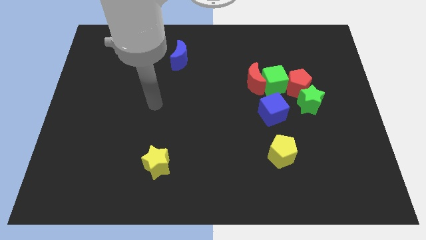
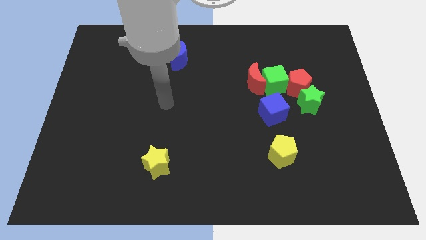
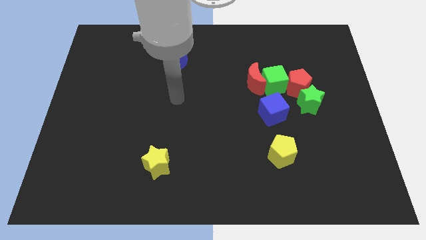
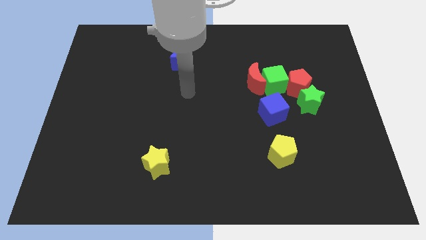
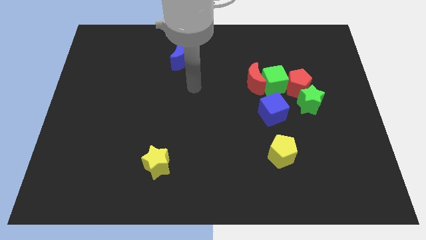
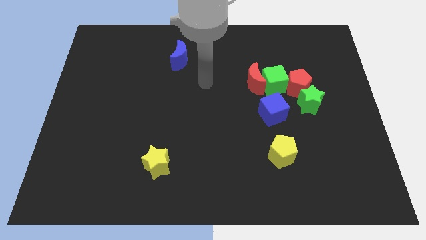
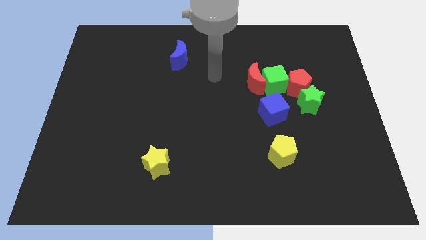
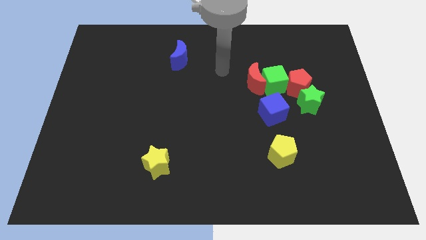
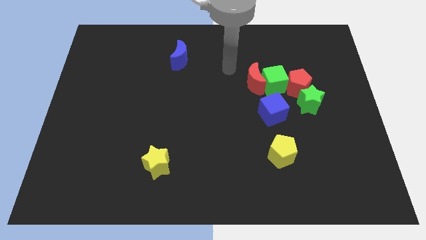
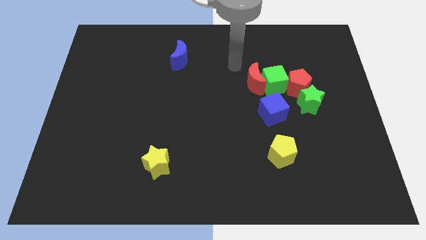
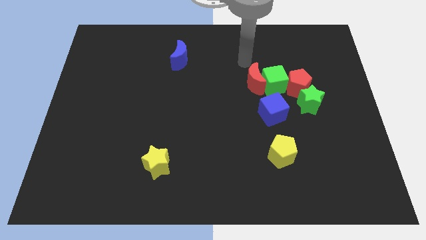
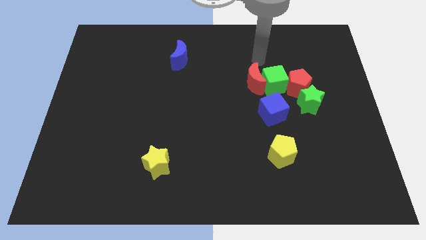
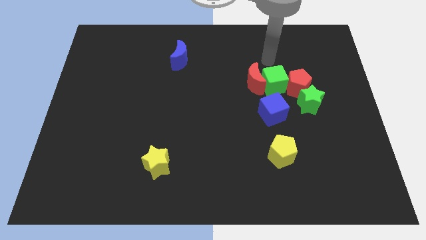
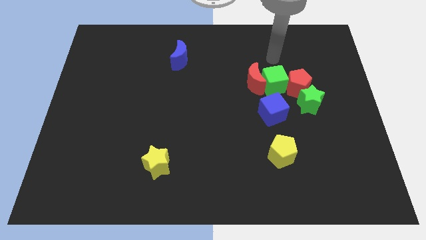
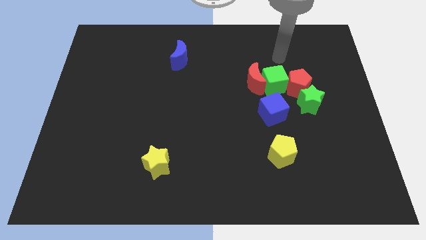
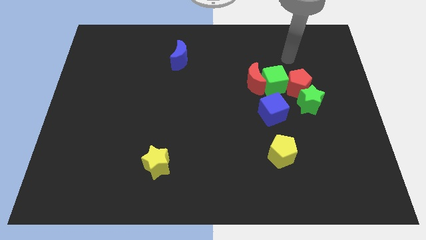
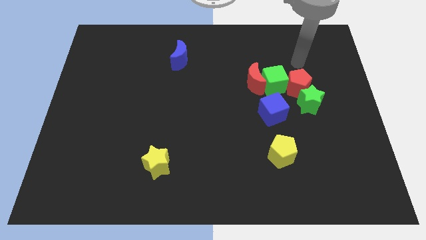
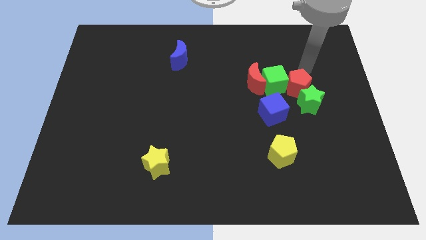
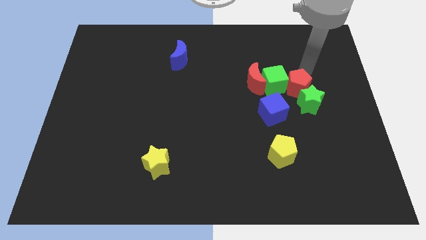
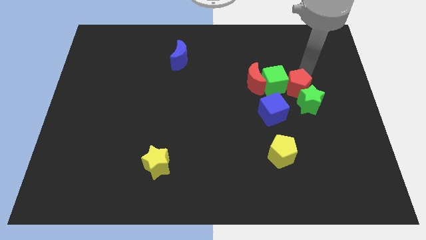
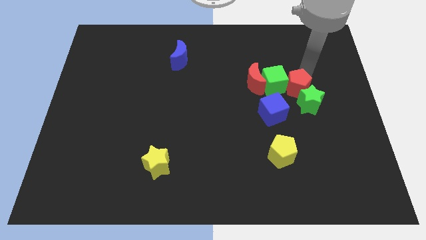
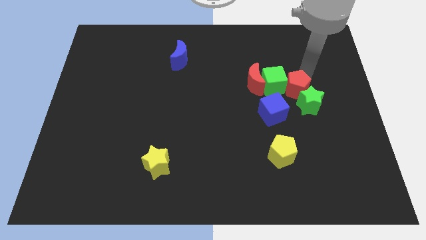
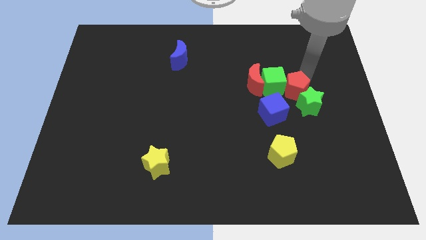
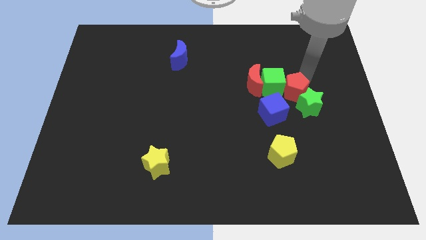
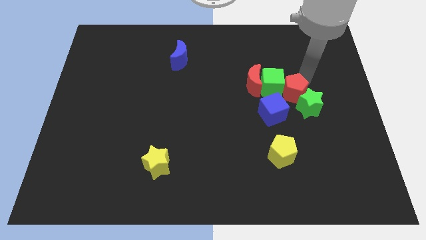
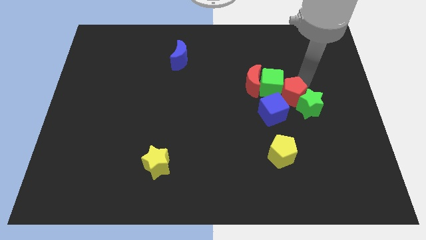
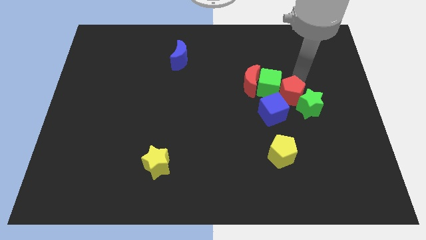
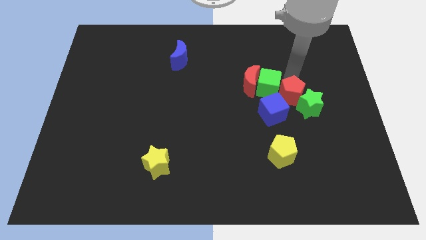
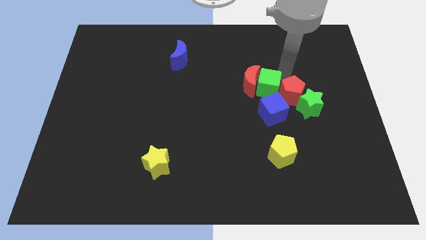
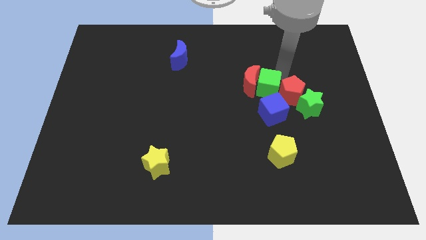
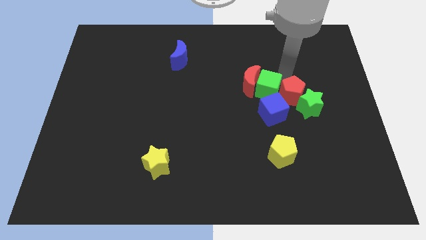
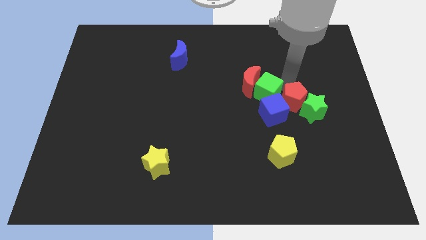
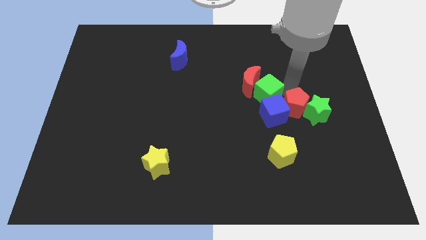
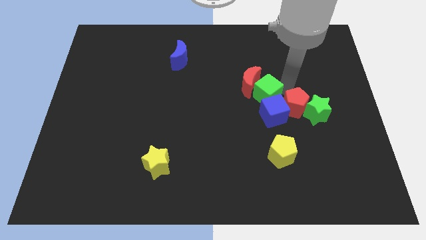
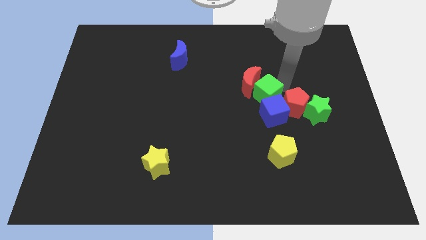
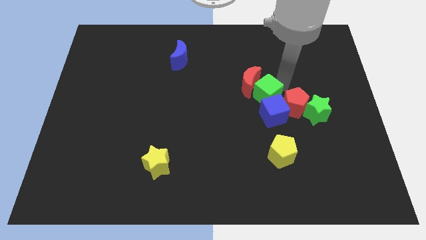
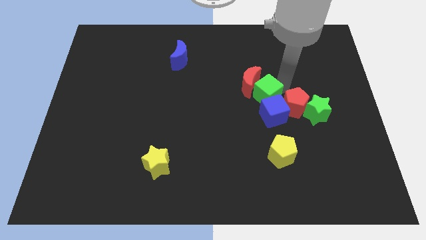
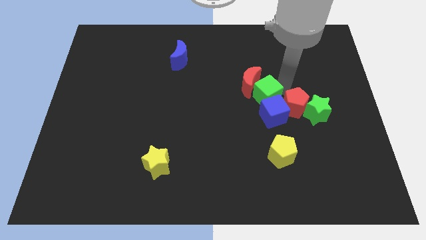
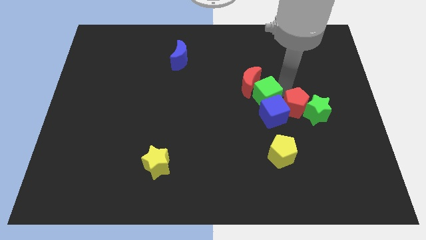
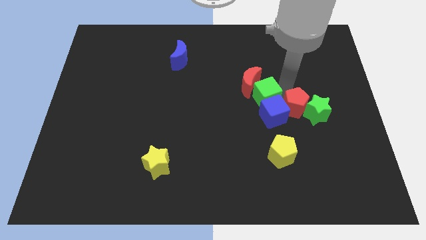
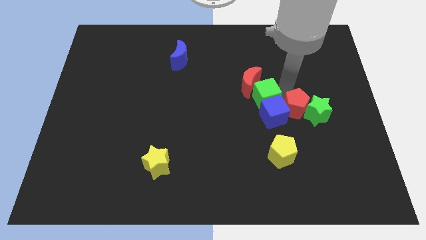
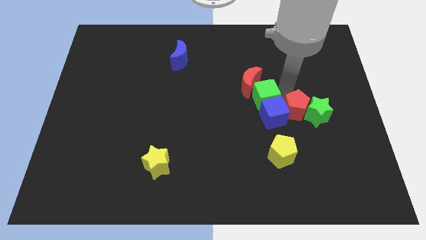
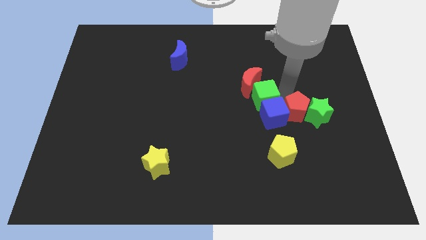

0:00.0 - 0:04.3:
move the red pentagon to the bottom right of the blue cube

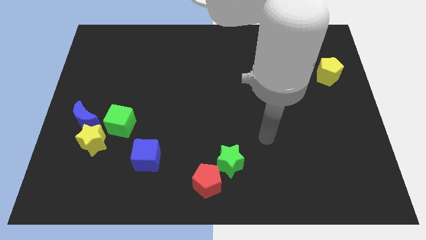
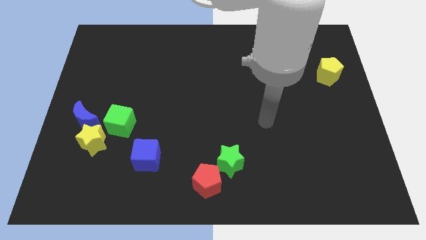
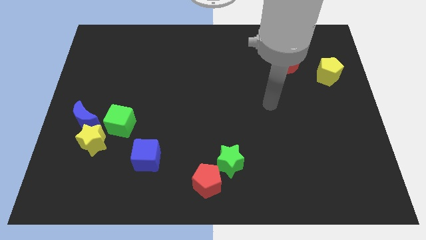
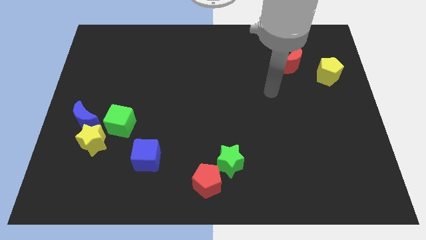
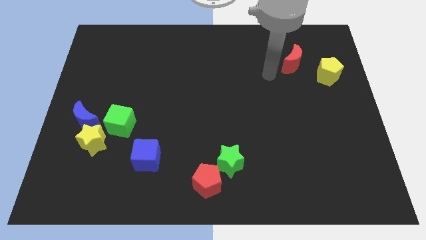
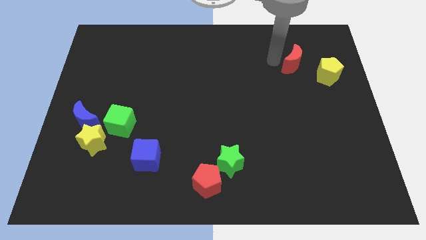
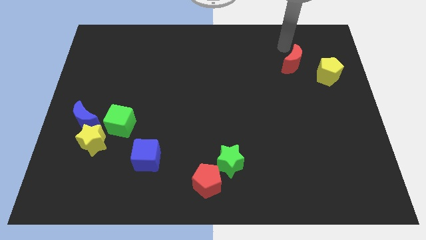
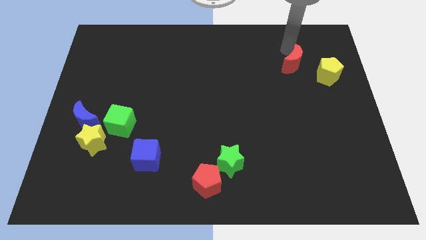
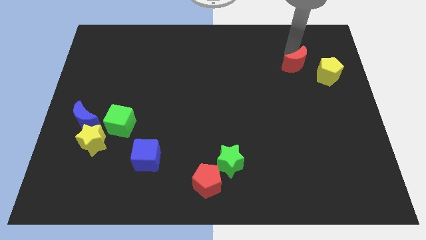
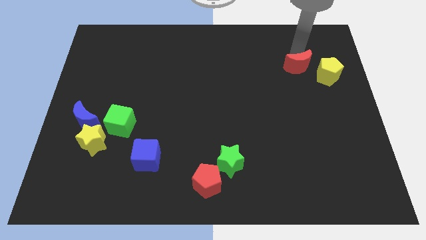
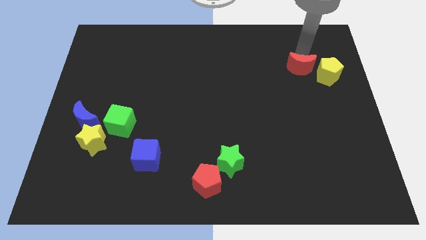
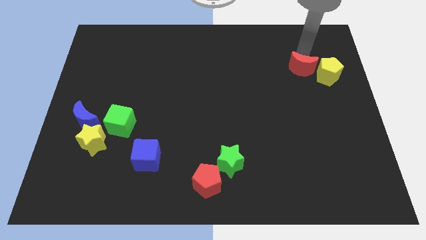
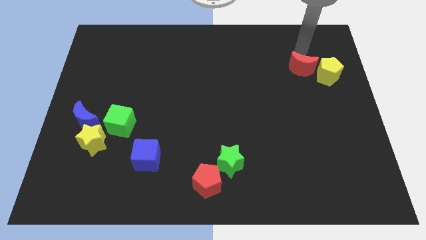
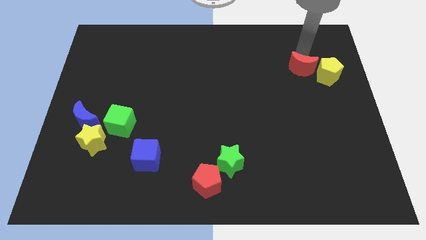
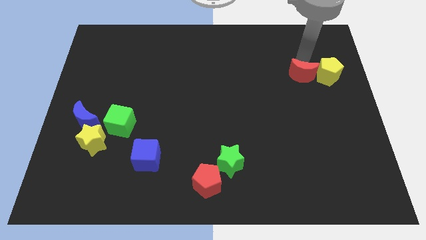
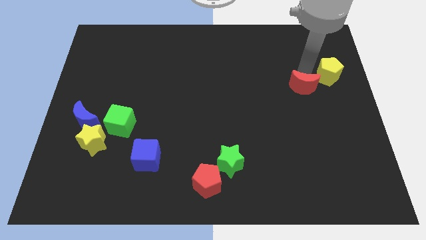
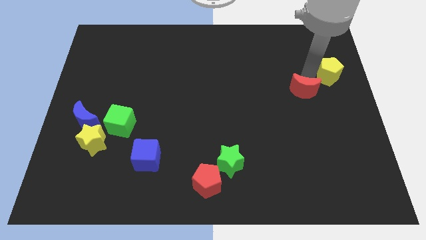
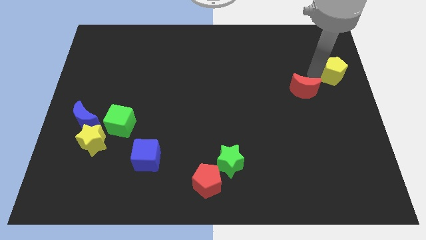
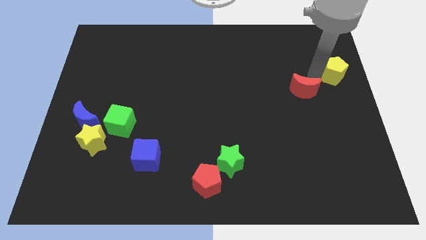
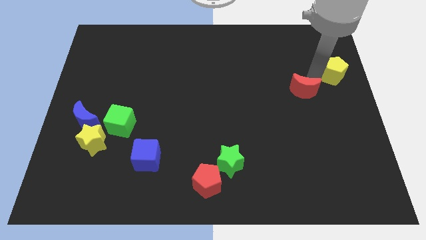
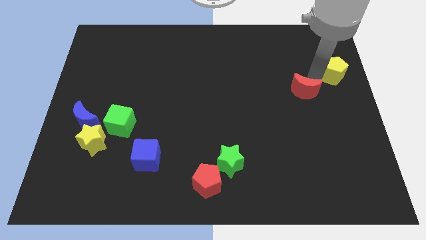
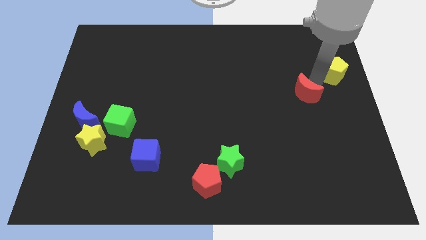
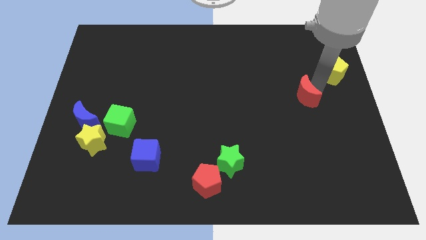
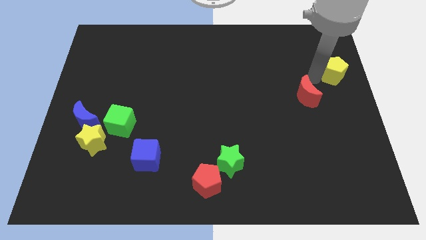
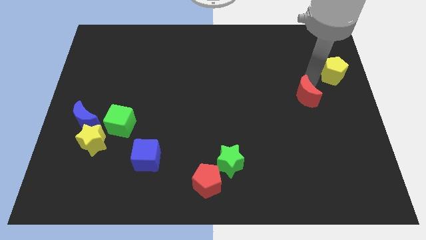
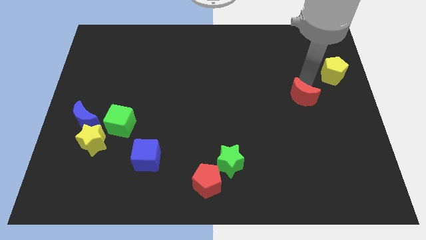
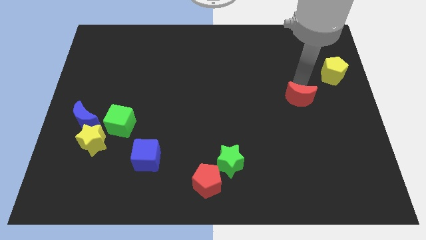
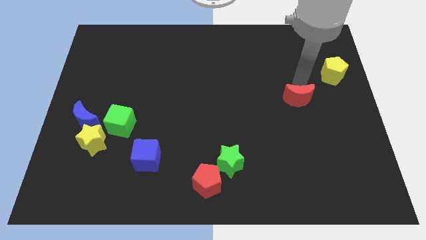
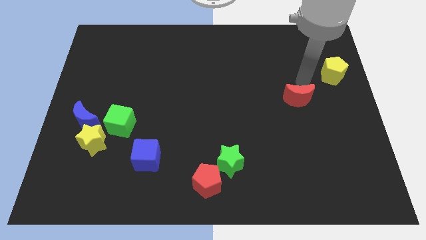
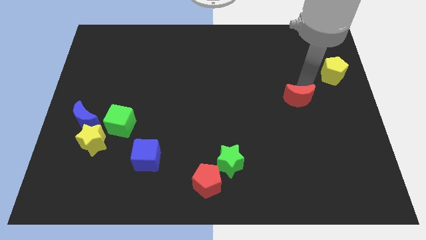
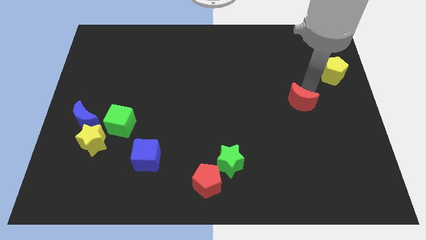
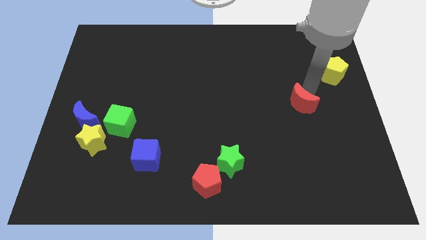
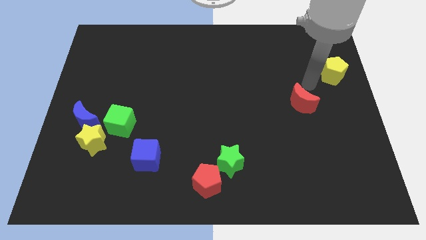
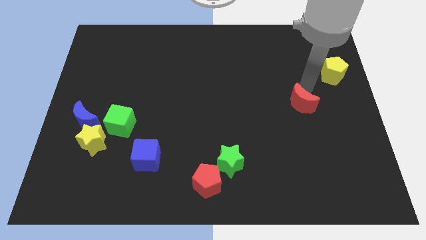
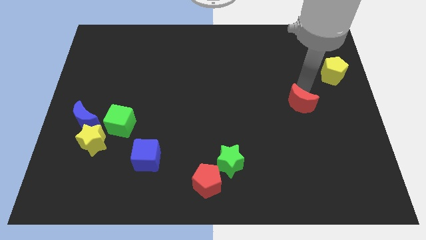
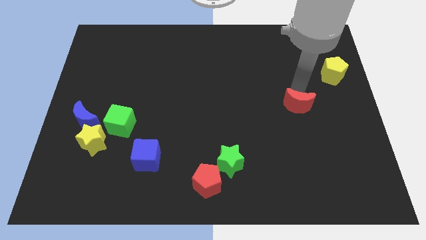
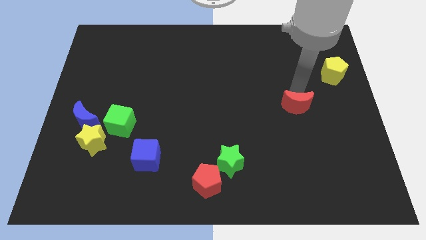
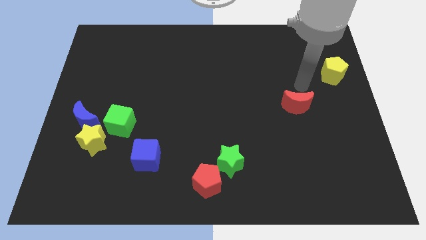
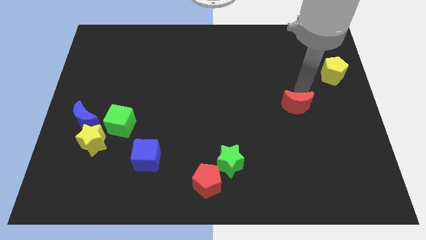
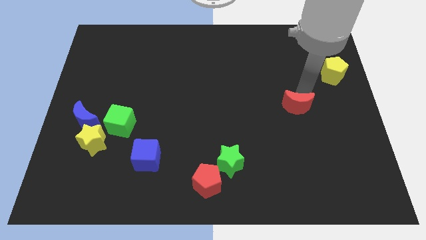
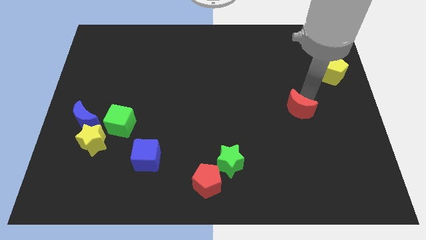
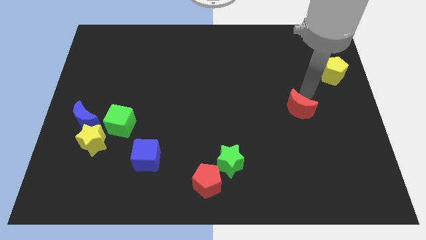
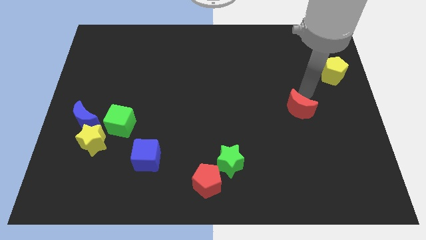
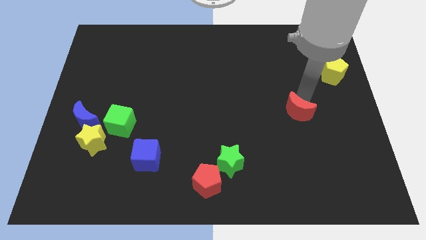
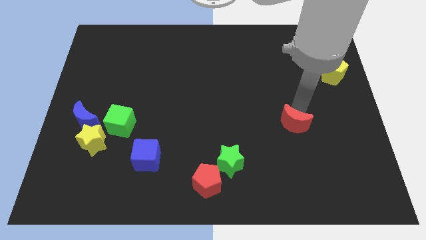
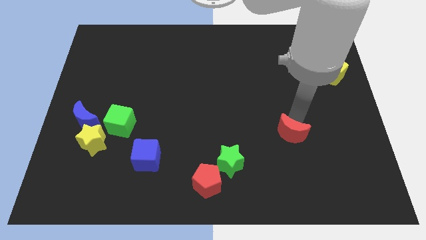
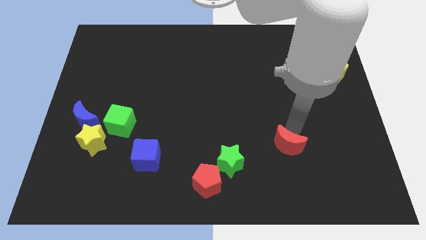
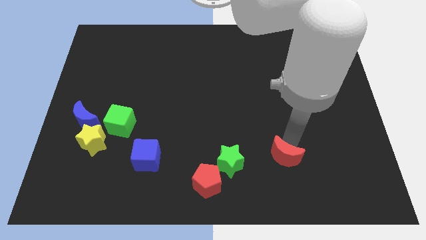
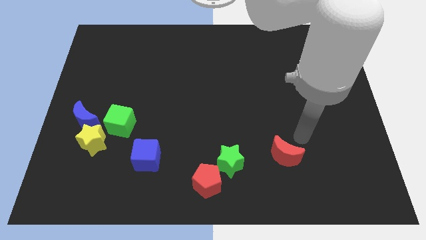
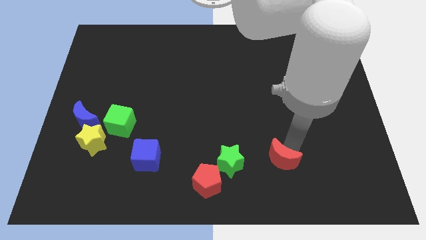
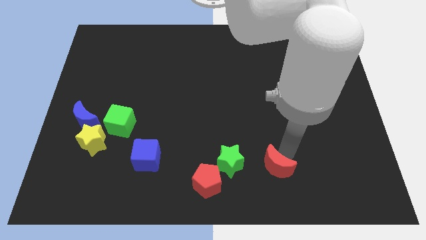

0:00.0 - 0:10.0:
put the red moon to the right of the red pentagon
